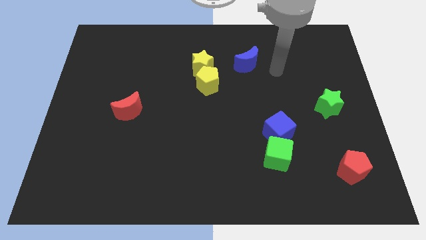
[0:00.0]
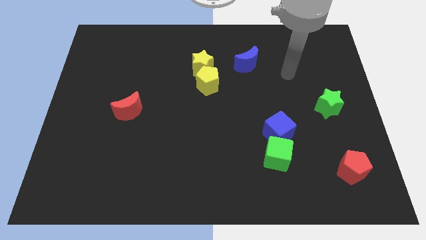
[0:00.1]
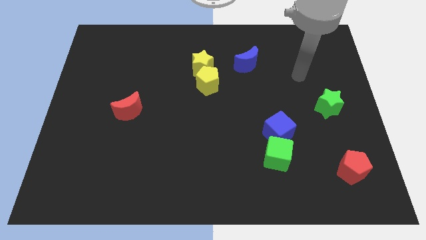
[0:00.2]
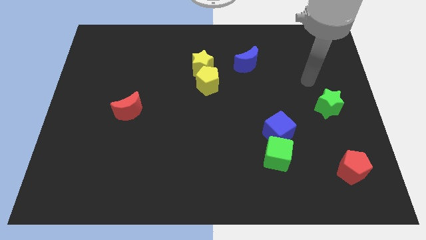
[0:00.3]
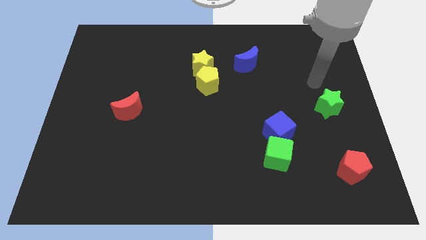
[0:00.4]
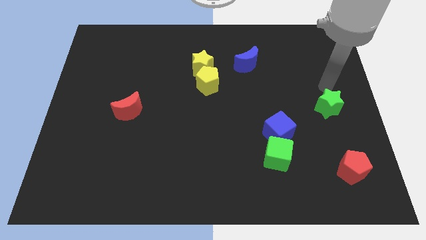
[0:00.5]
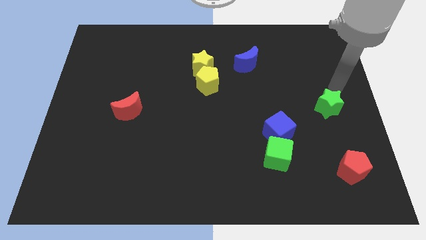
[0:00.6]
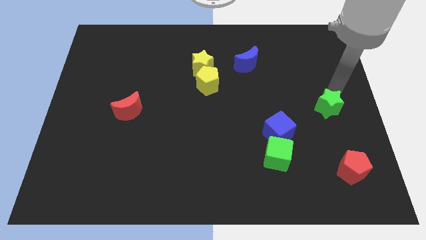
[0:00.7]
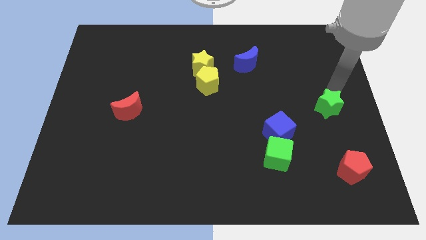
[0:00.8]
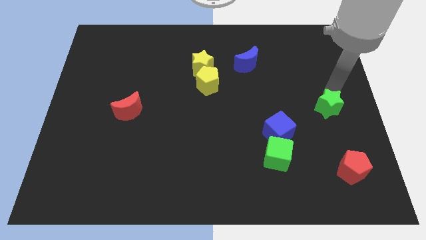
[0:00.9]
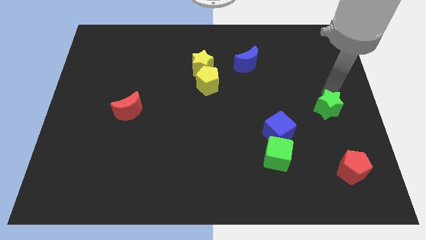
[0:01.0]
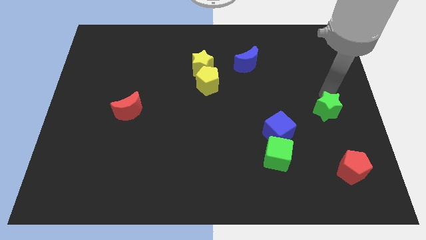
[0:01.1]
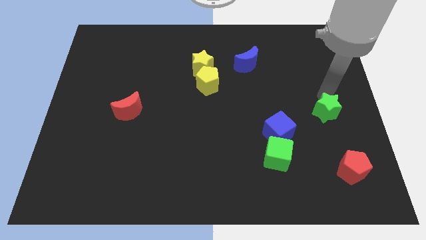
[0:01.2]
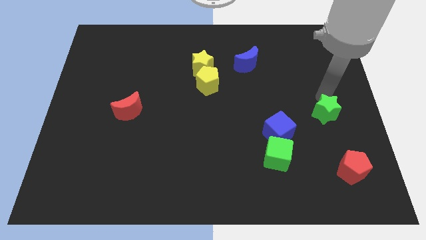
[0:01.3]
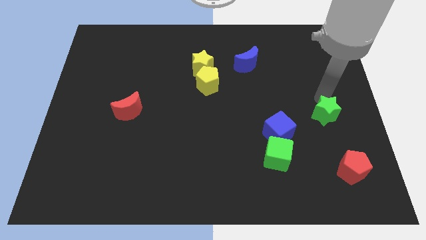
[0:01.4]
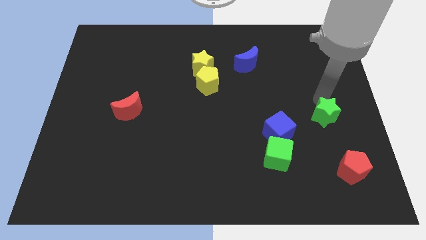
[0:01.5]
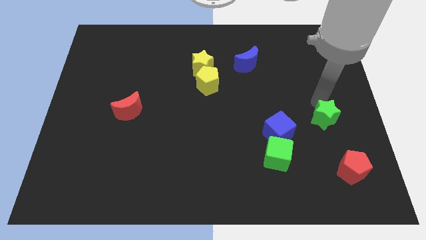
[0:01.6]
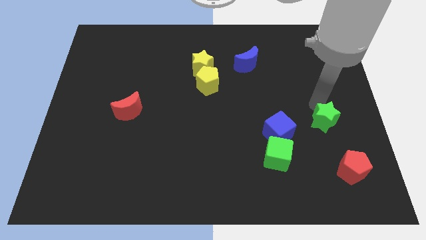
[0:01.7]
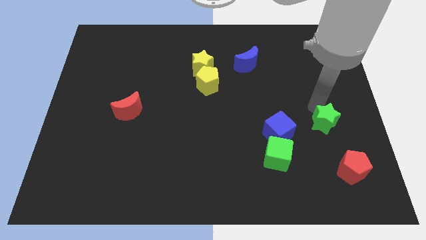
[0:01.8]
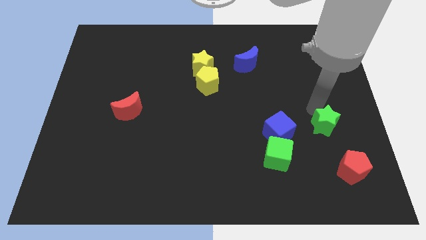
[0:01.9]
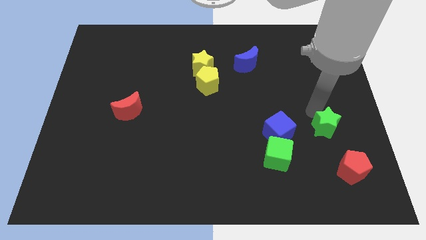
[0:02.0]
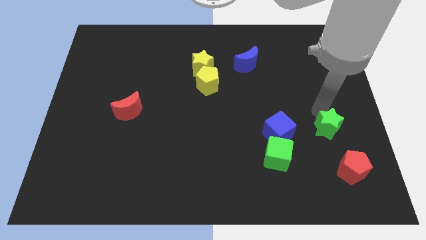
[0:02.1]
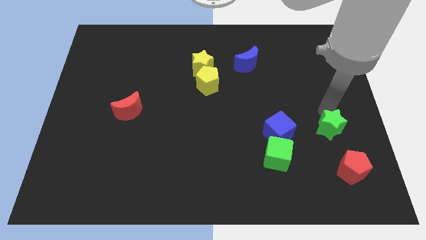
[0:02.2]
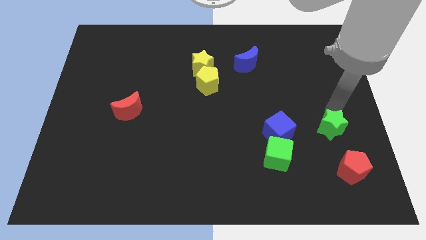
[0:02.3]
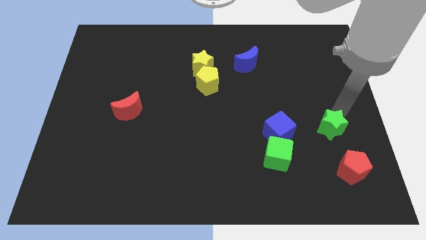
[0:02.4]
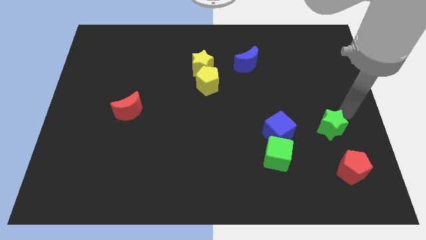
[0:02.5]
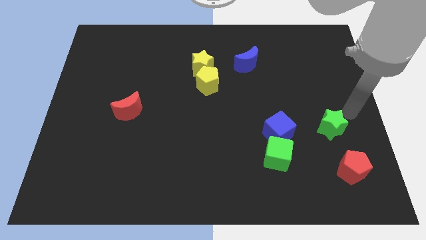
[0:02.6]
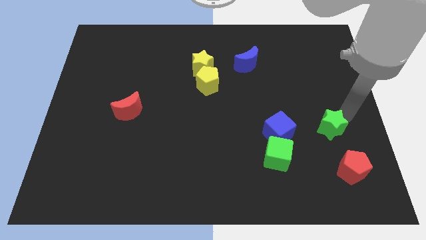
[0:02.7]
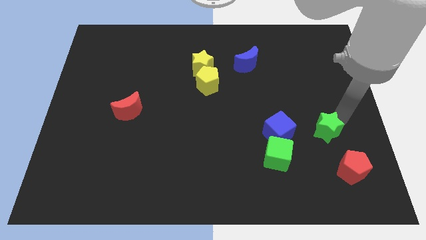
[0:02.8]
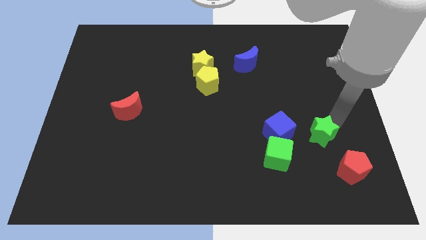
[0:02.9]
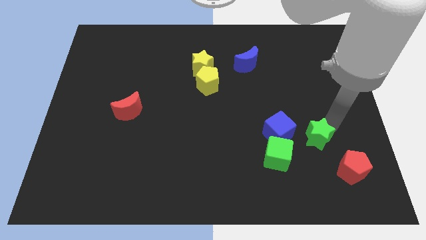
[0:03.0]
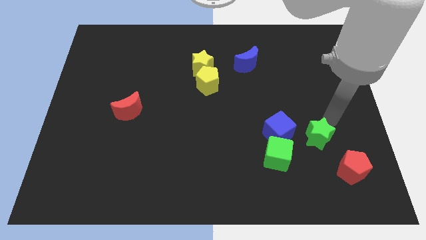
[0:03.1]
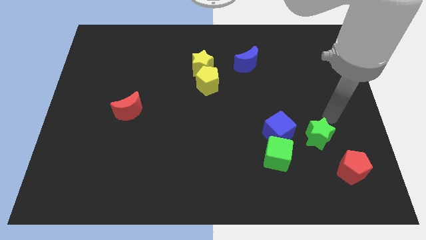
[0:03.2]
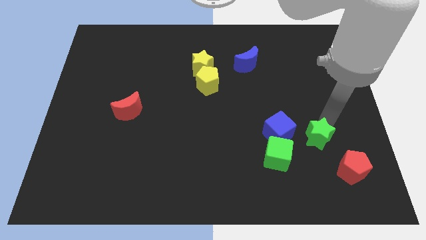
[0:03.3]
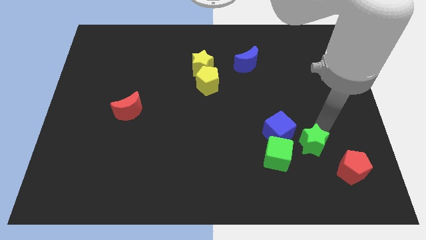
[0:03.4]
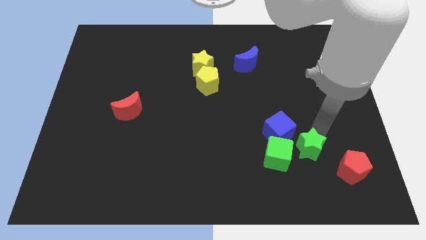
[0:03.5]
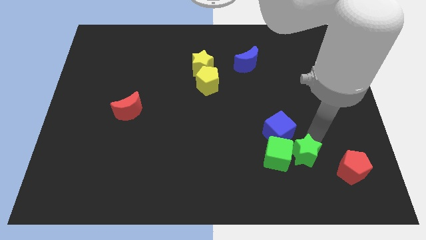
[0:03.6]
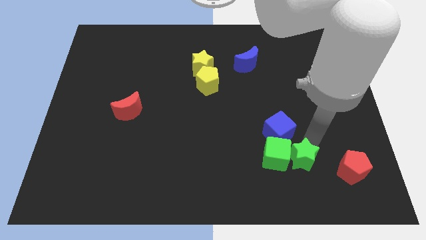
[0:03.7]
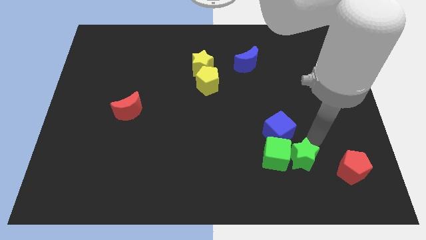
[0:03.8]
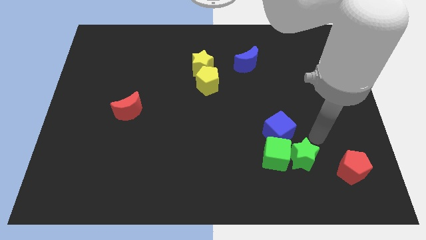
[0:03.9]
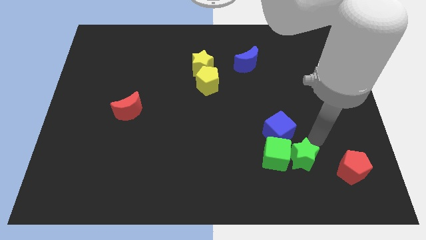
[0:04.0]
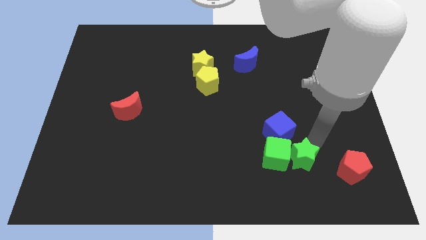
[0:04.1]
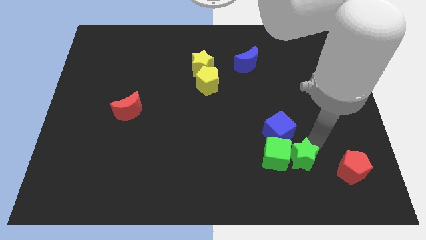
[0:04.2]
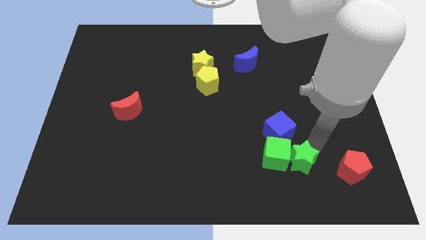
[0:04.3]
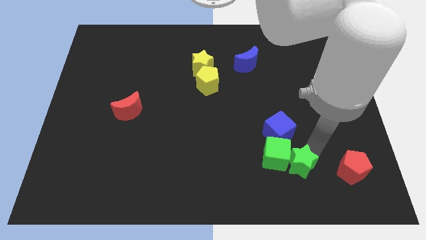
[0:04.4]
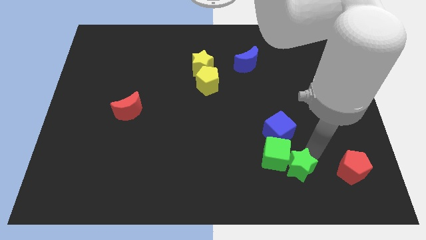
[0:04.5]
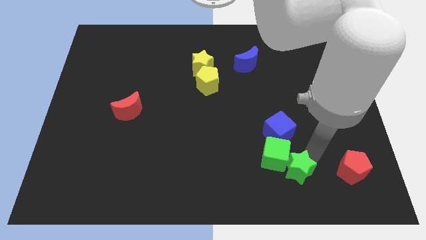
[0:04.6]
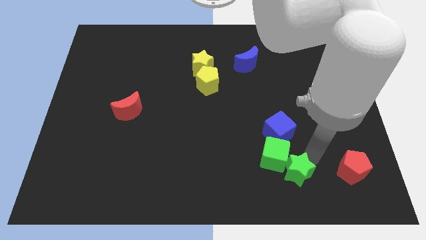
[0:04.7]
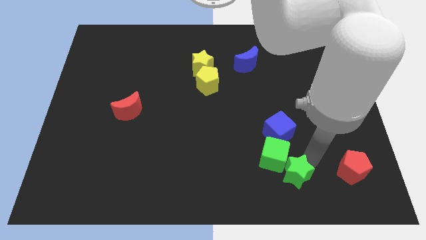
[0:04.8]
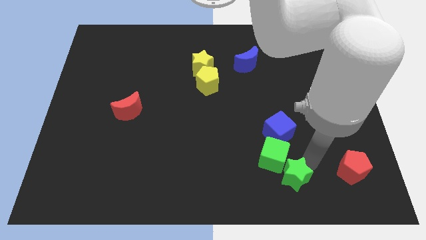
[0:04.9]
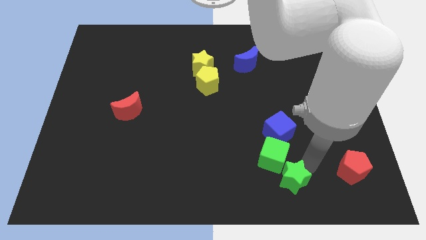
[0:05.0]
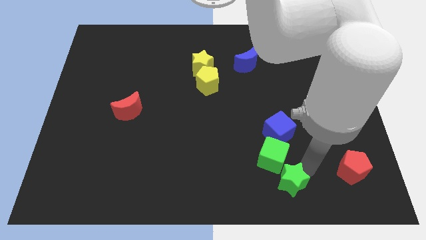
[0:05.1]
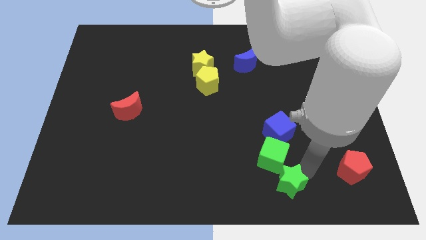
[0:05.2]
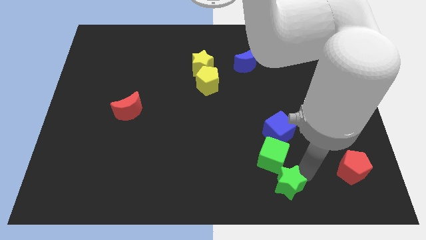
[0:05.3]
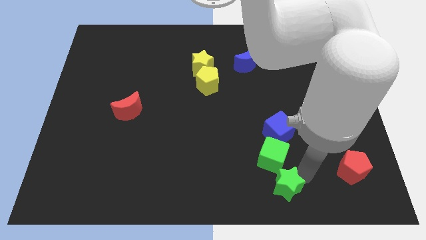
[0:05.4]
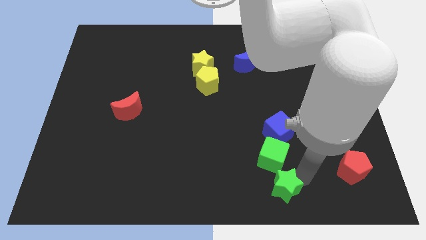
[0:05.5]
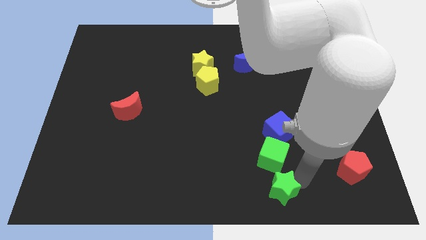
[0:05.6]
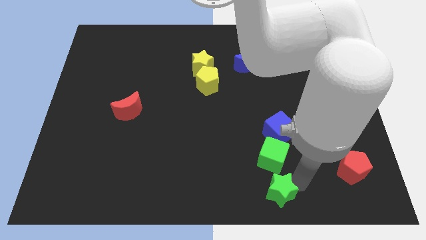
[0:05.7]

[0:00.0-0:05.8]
slide the green star to the bottom
